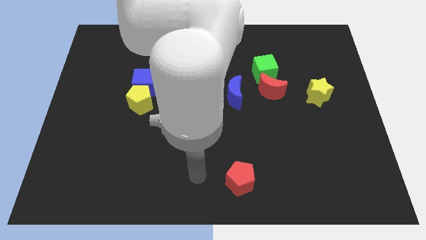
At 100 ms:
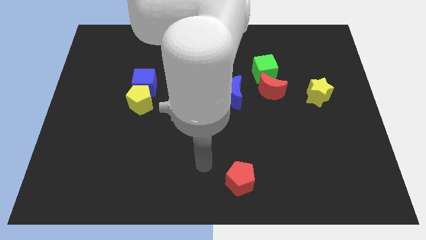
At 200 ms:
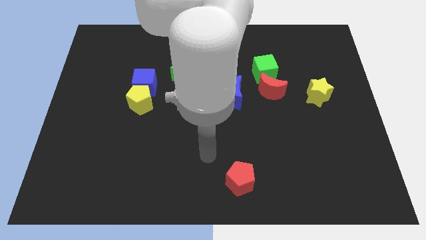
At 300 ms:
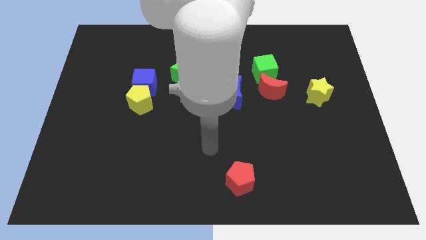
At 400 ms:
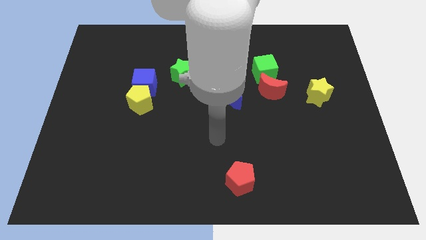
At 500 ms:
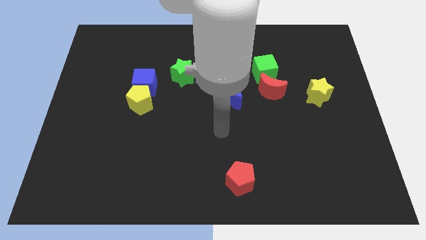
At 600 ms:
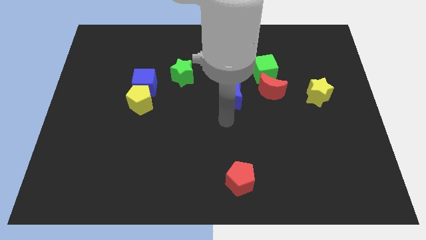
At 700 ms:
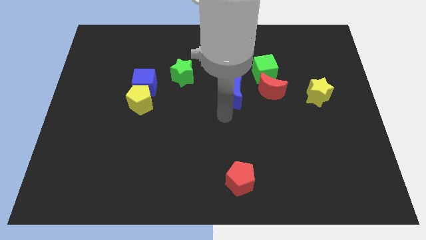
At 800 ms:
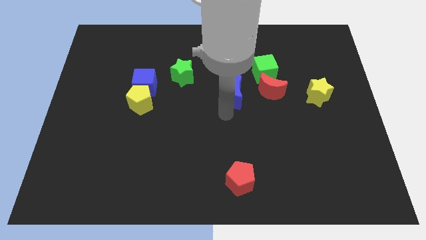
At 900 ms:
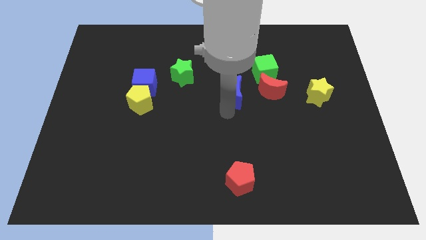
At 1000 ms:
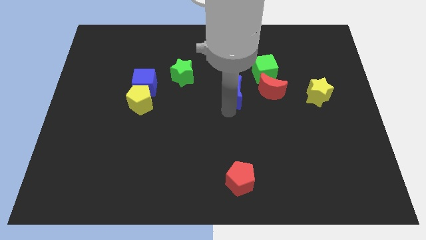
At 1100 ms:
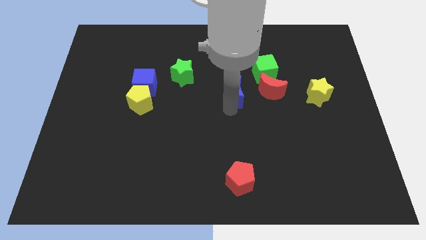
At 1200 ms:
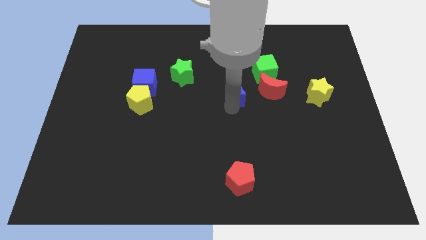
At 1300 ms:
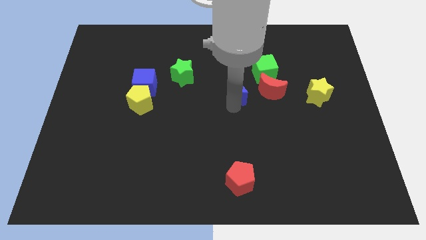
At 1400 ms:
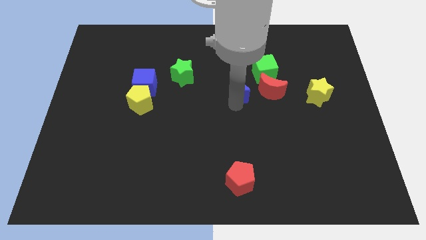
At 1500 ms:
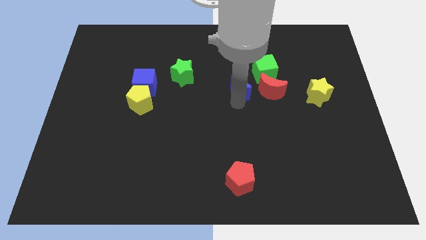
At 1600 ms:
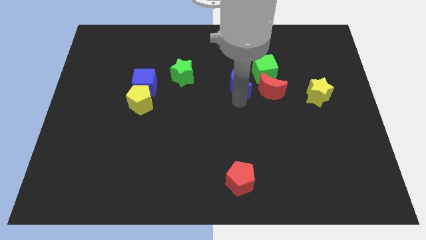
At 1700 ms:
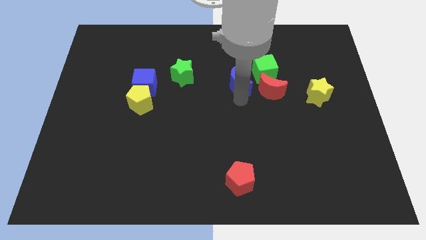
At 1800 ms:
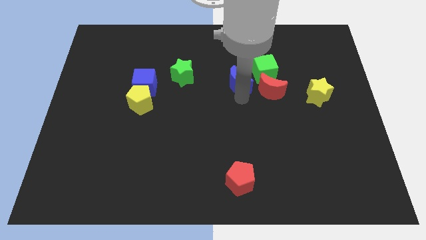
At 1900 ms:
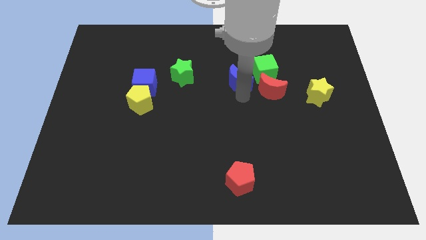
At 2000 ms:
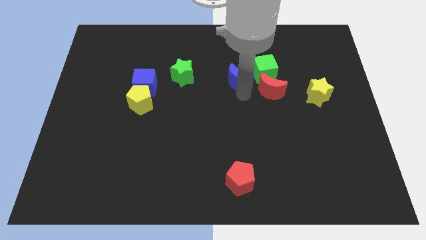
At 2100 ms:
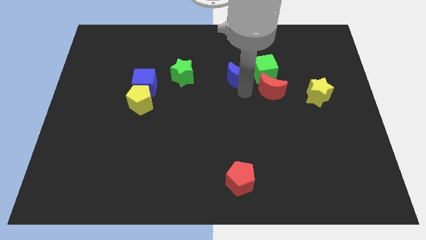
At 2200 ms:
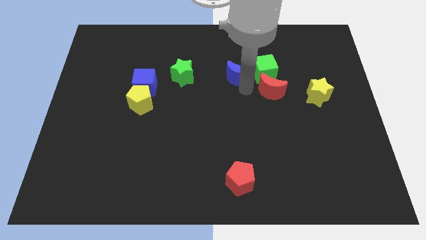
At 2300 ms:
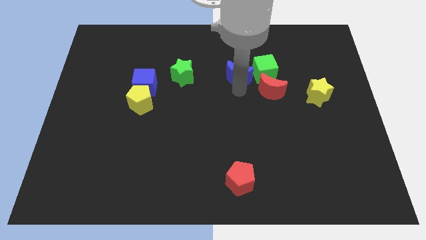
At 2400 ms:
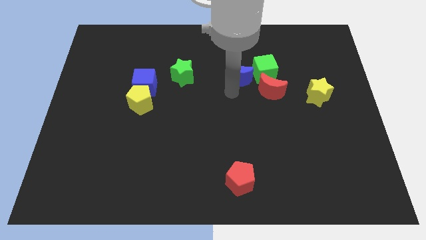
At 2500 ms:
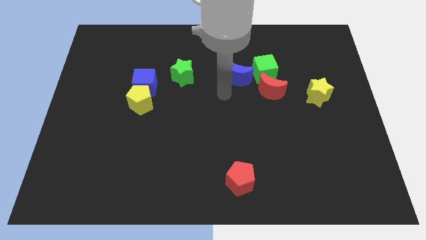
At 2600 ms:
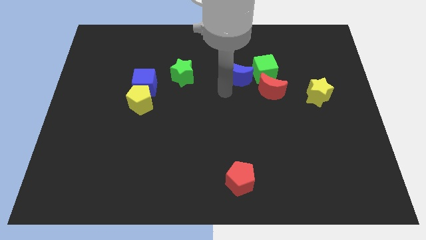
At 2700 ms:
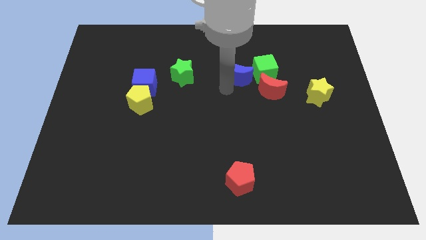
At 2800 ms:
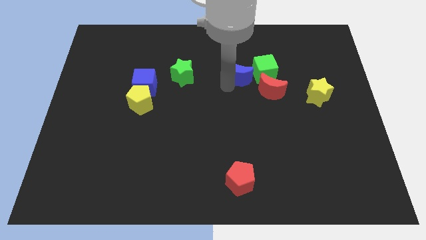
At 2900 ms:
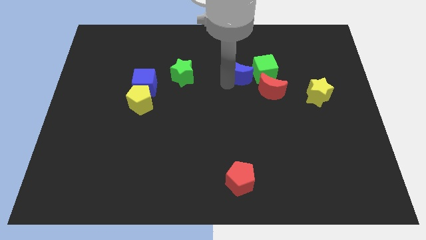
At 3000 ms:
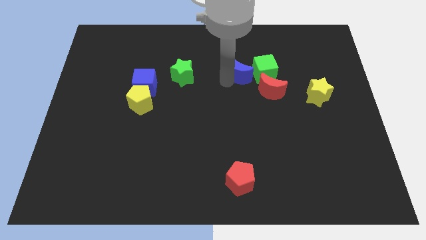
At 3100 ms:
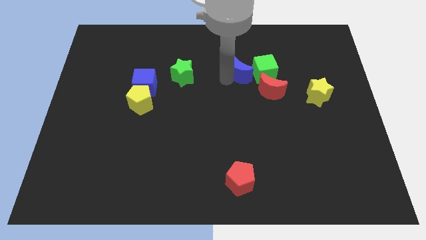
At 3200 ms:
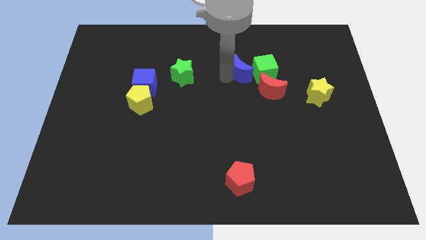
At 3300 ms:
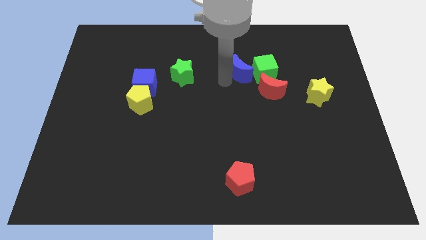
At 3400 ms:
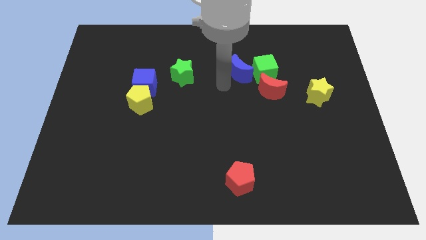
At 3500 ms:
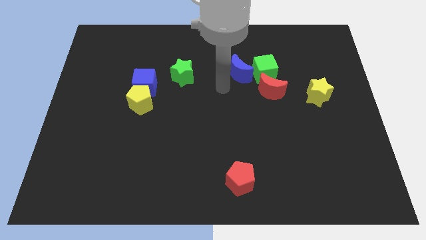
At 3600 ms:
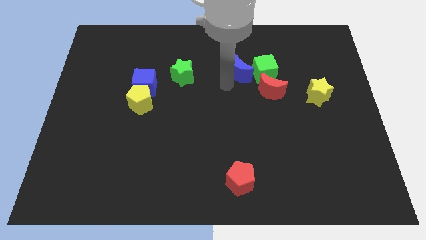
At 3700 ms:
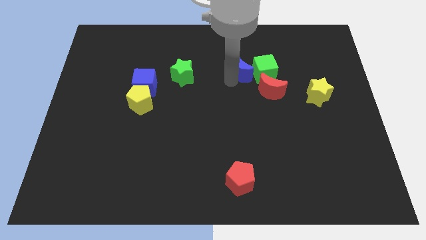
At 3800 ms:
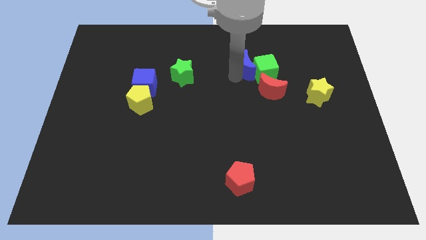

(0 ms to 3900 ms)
push the blue moon diagonally up and to the right a little

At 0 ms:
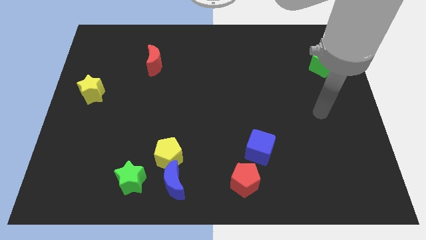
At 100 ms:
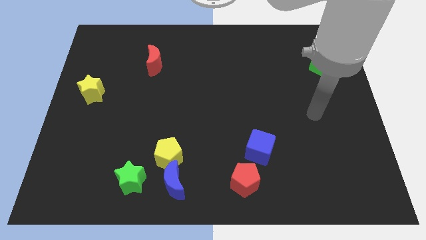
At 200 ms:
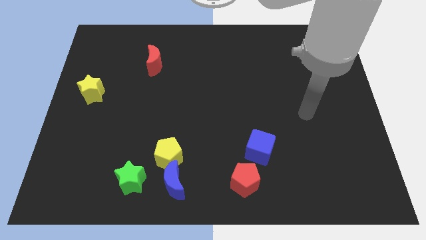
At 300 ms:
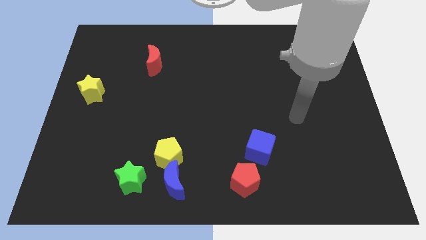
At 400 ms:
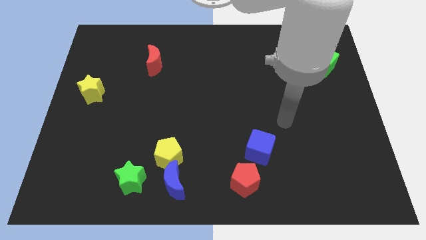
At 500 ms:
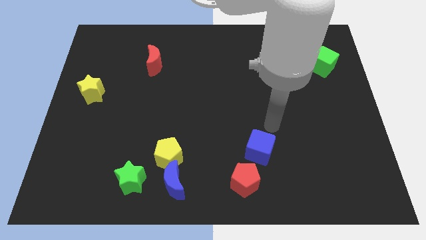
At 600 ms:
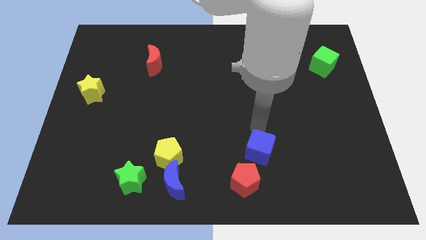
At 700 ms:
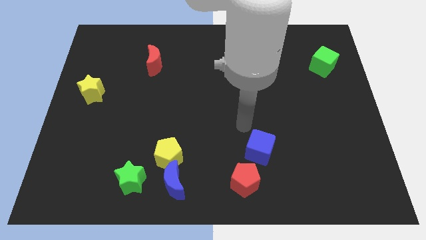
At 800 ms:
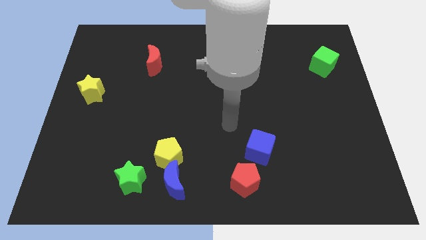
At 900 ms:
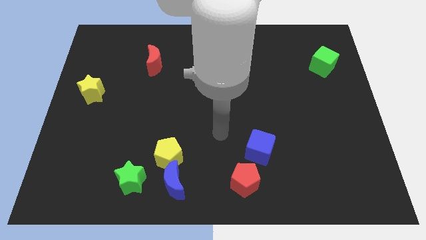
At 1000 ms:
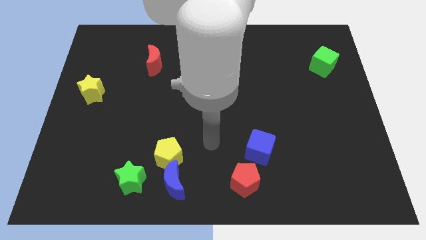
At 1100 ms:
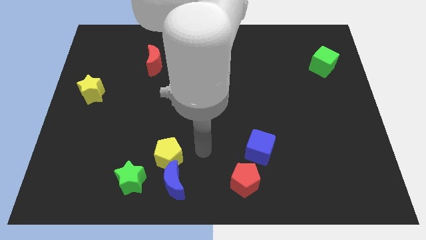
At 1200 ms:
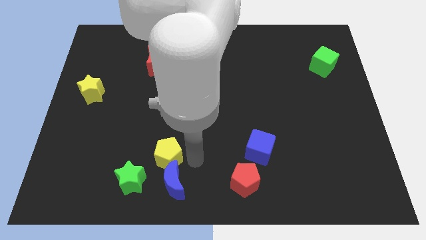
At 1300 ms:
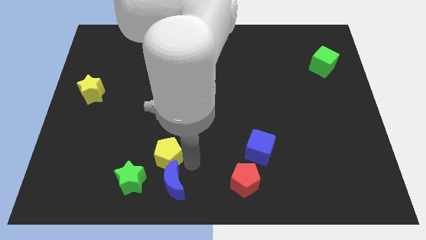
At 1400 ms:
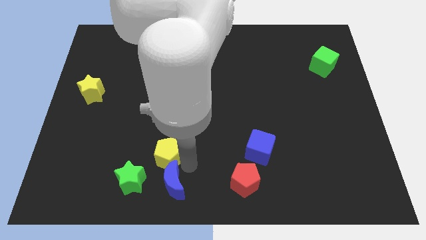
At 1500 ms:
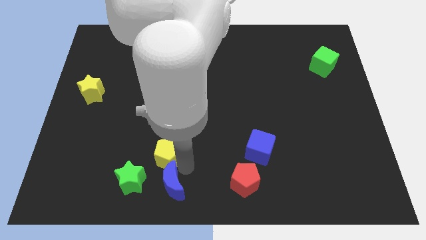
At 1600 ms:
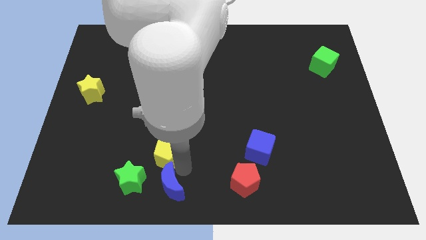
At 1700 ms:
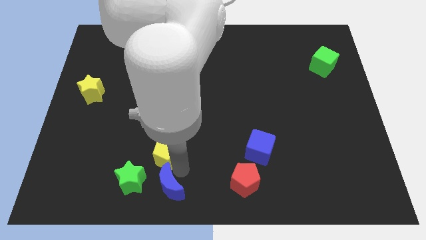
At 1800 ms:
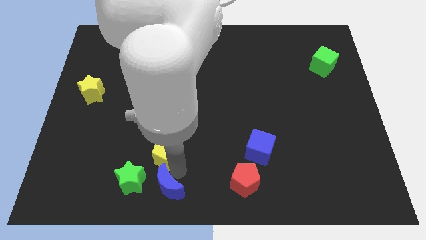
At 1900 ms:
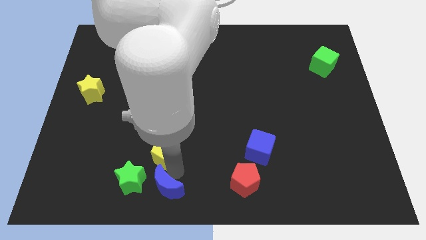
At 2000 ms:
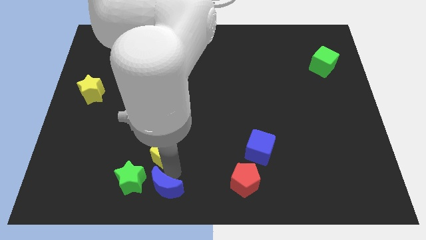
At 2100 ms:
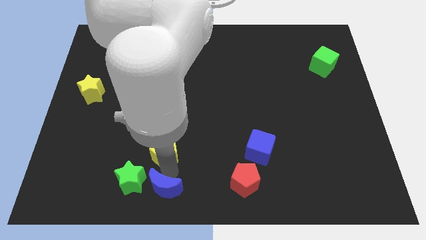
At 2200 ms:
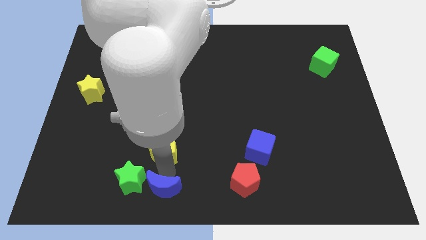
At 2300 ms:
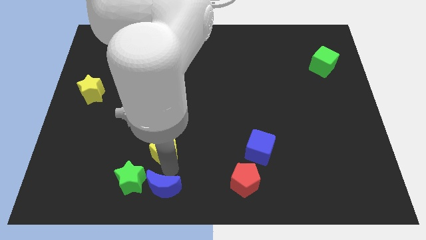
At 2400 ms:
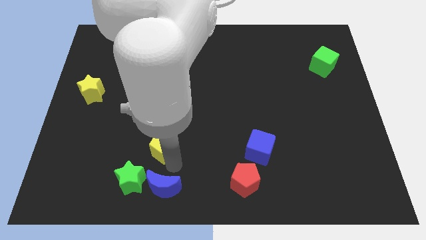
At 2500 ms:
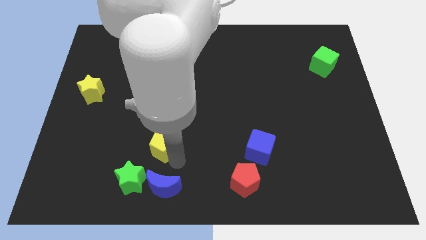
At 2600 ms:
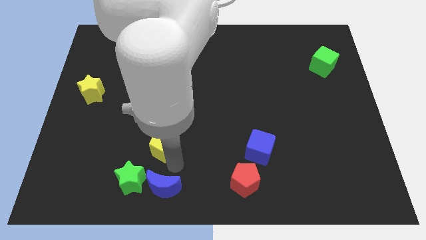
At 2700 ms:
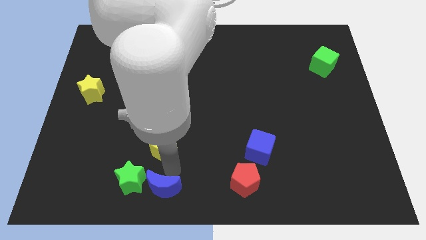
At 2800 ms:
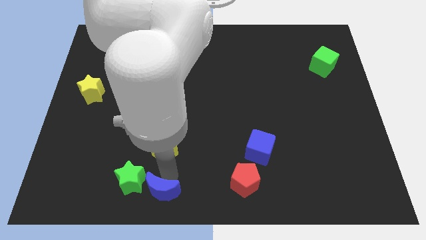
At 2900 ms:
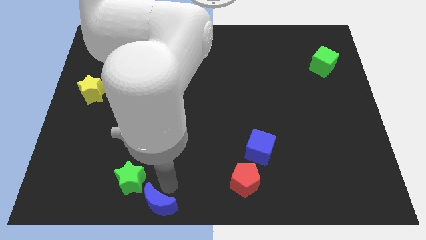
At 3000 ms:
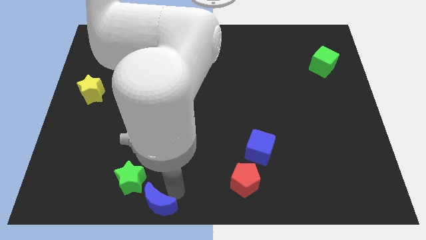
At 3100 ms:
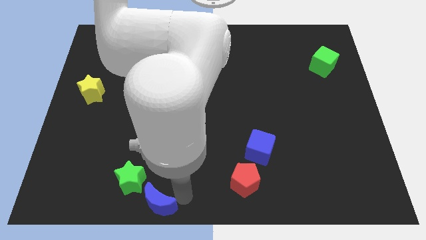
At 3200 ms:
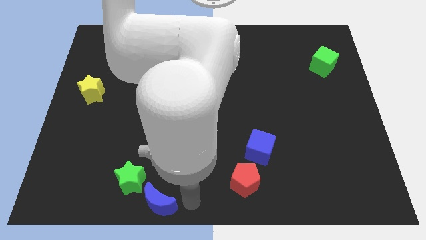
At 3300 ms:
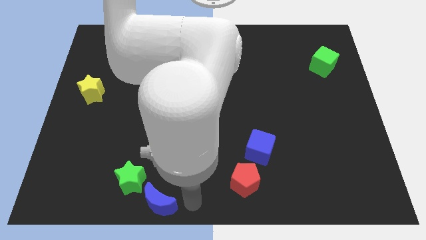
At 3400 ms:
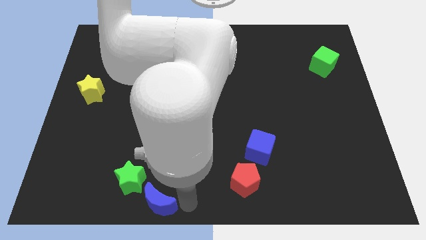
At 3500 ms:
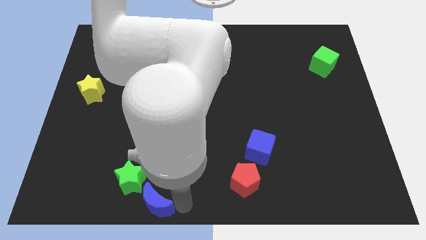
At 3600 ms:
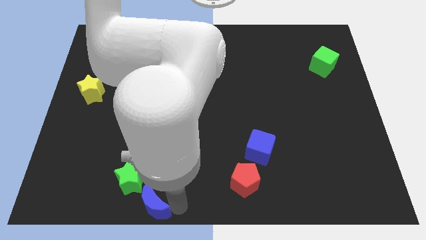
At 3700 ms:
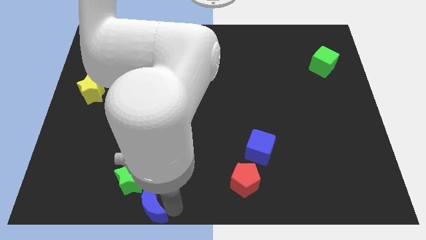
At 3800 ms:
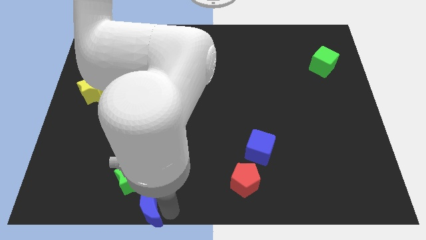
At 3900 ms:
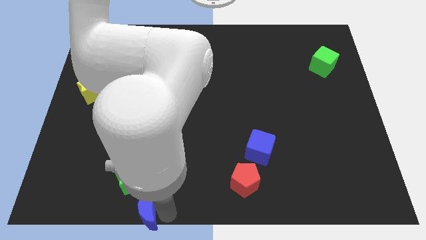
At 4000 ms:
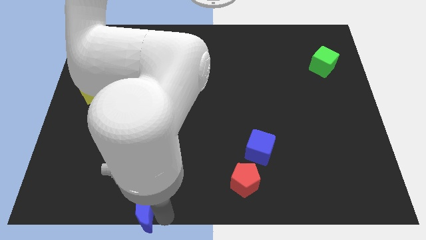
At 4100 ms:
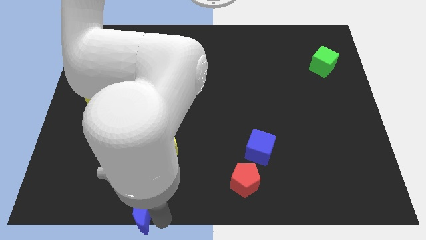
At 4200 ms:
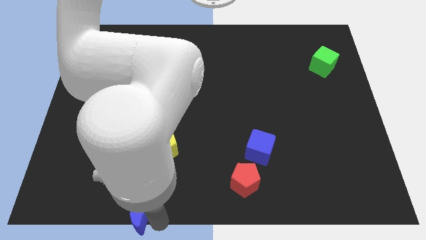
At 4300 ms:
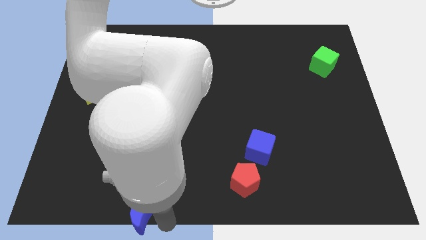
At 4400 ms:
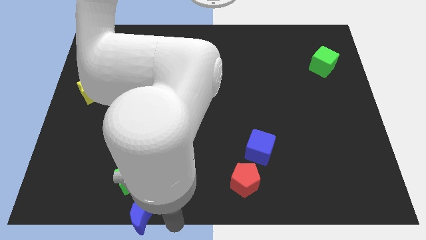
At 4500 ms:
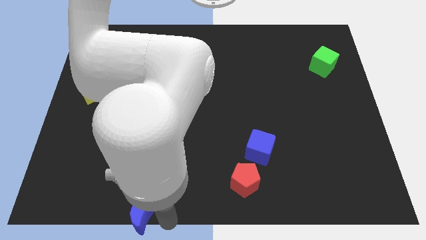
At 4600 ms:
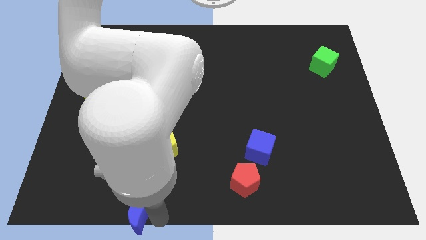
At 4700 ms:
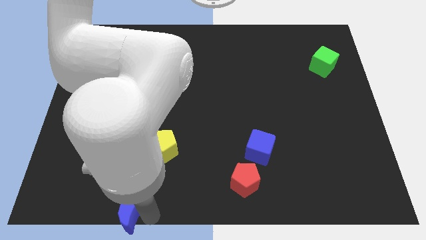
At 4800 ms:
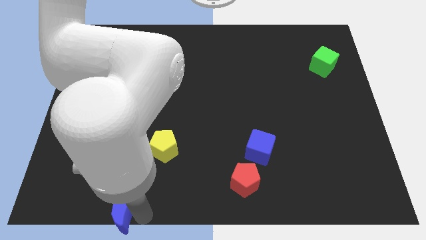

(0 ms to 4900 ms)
slide the blue moon to the left a bit
